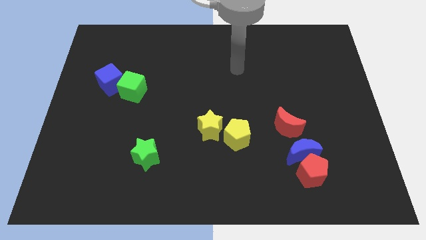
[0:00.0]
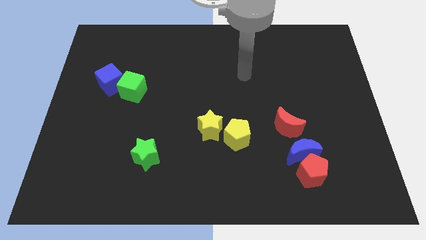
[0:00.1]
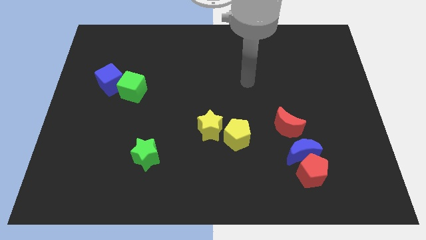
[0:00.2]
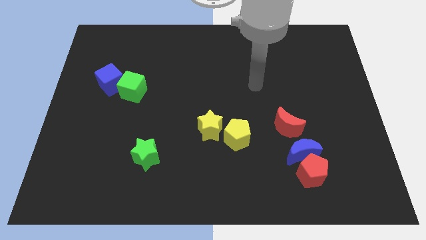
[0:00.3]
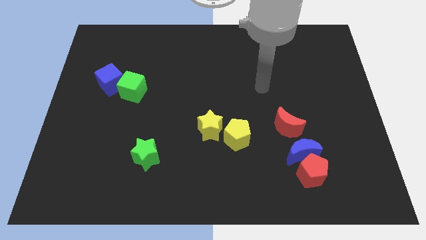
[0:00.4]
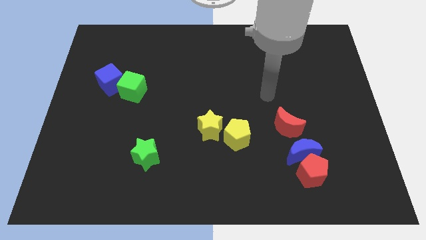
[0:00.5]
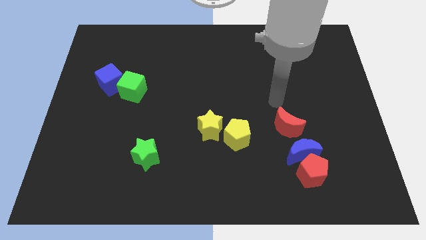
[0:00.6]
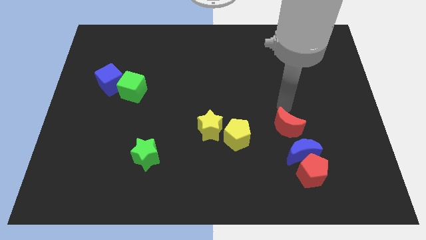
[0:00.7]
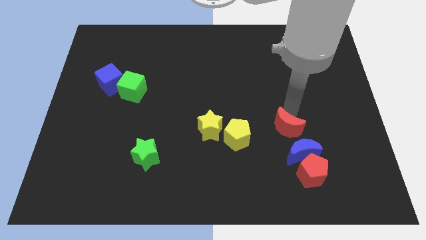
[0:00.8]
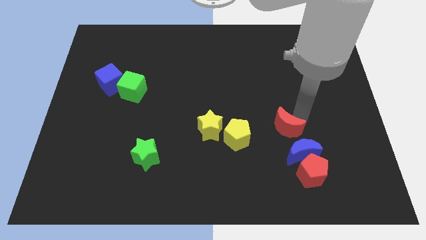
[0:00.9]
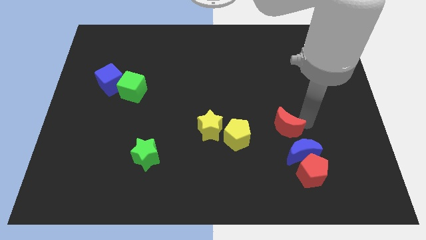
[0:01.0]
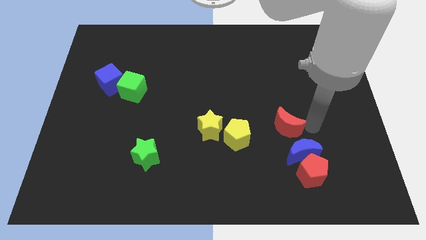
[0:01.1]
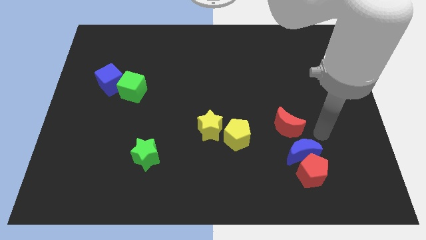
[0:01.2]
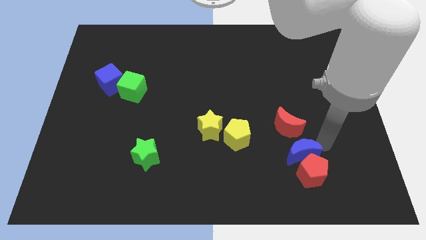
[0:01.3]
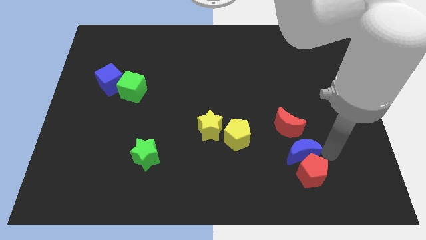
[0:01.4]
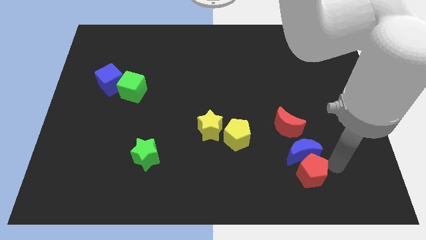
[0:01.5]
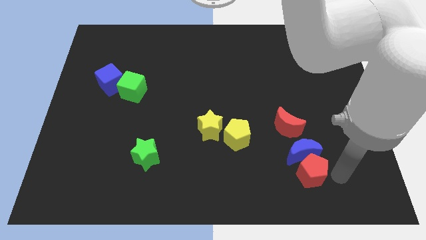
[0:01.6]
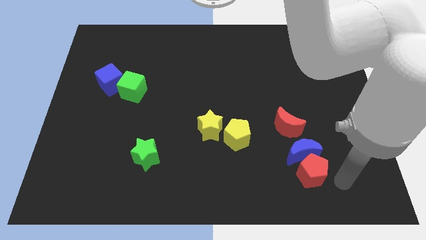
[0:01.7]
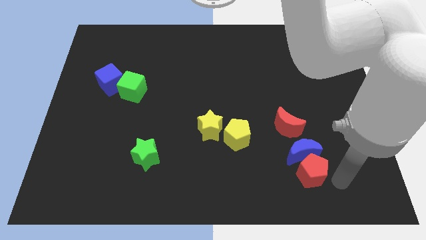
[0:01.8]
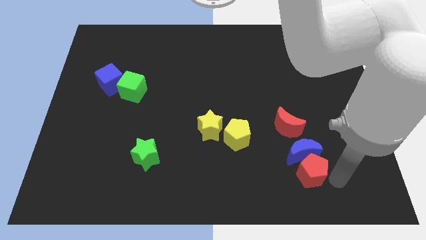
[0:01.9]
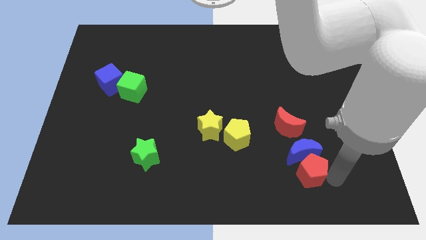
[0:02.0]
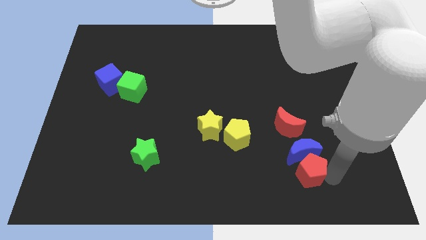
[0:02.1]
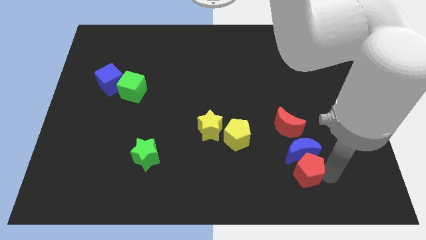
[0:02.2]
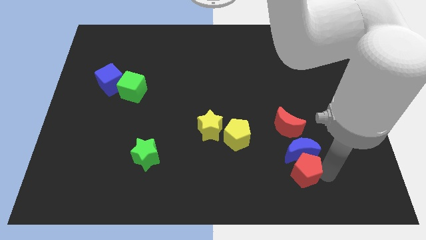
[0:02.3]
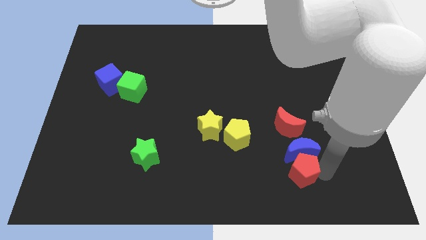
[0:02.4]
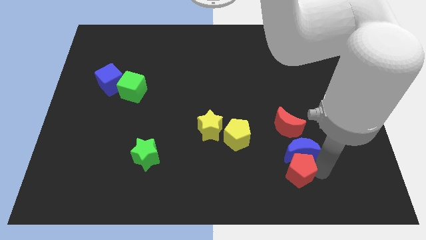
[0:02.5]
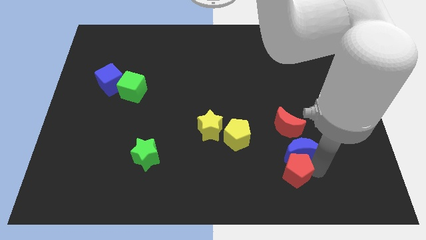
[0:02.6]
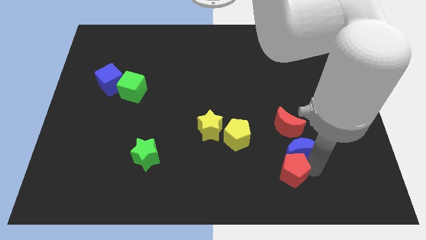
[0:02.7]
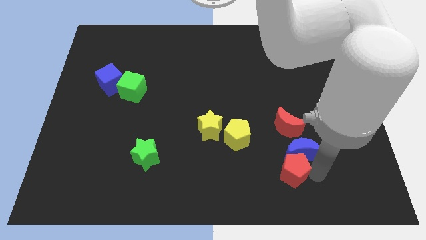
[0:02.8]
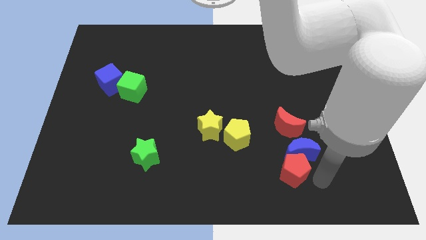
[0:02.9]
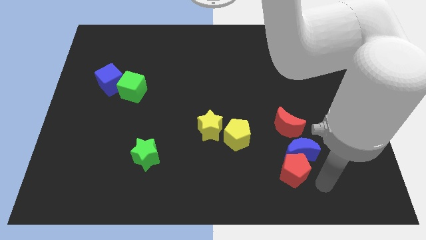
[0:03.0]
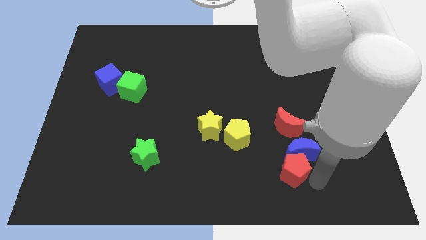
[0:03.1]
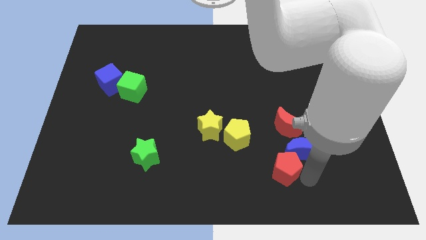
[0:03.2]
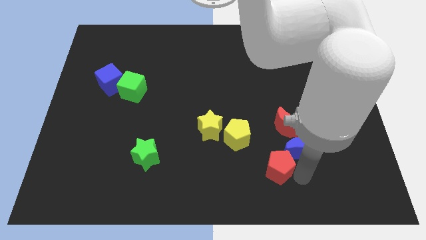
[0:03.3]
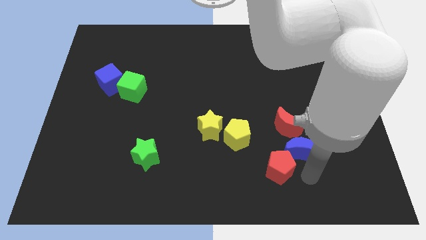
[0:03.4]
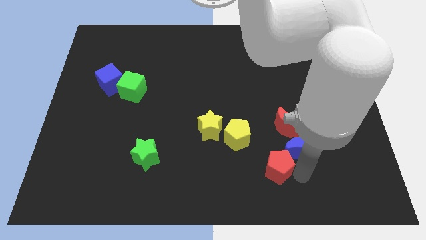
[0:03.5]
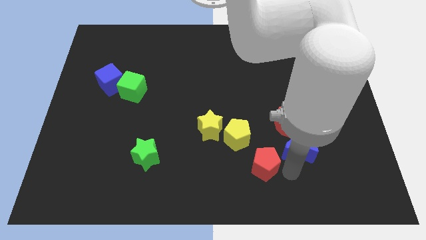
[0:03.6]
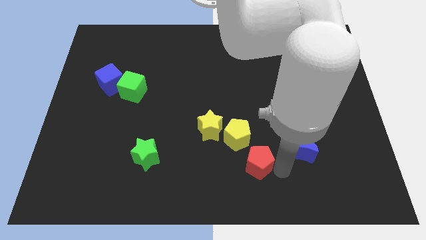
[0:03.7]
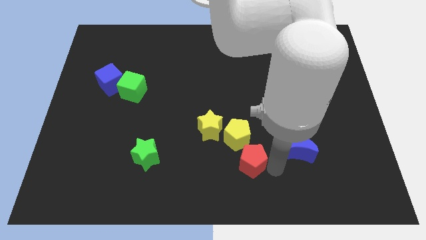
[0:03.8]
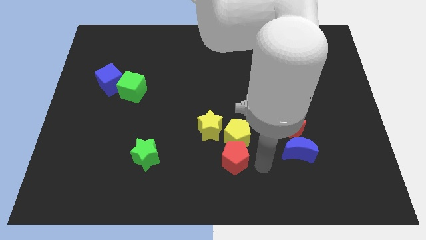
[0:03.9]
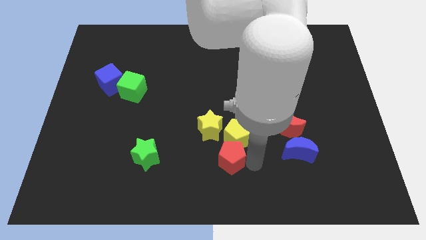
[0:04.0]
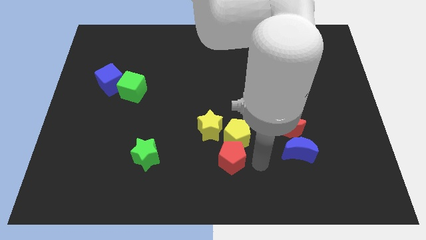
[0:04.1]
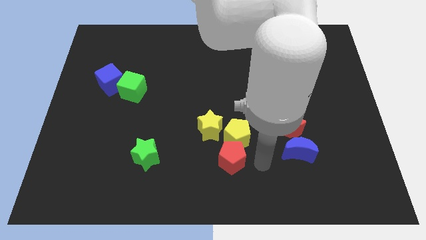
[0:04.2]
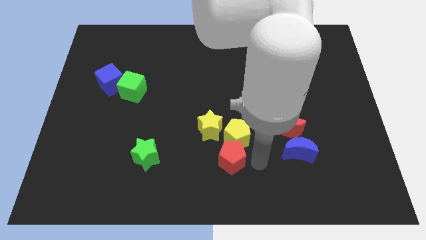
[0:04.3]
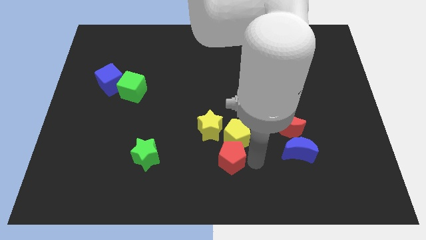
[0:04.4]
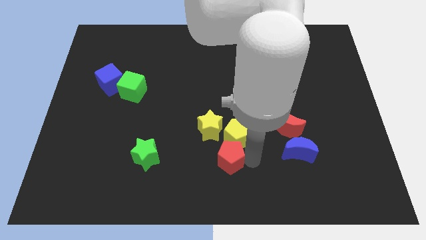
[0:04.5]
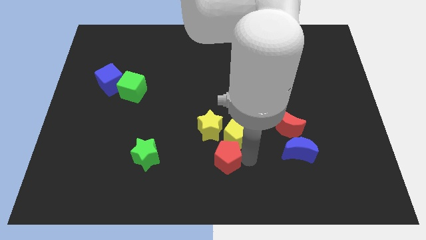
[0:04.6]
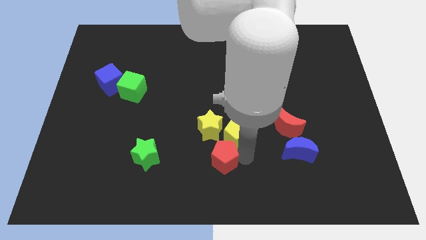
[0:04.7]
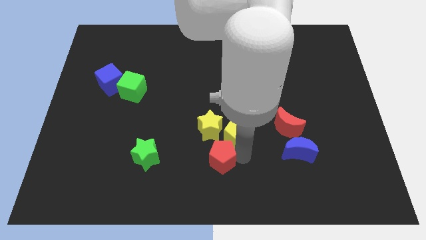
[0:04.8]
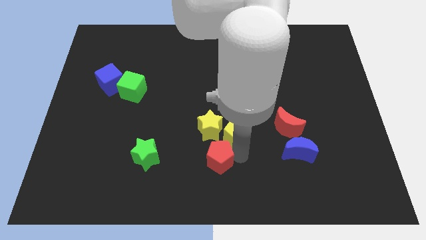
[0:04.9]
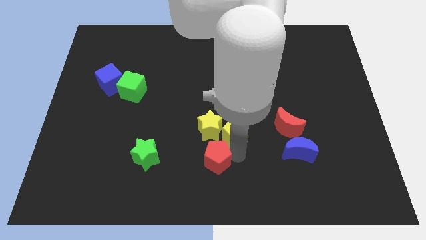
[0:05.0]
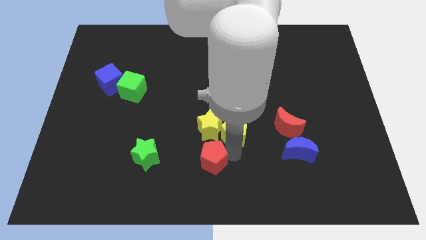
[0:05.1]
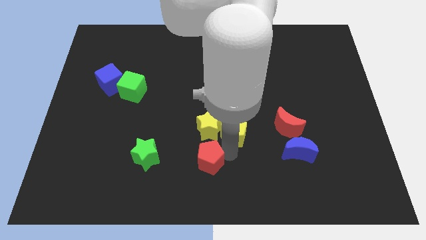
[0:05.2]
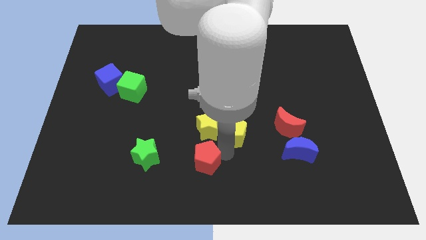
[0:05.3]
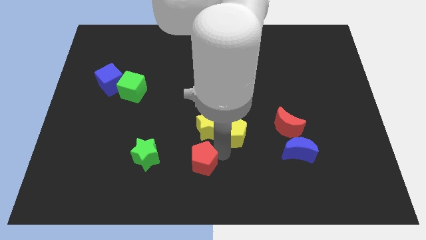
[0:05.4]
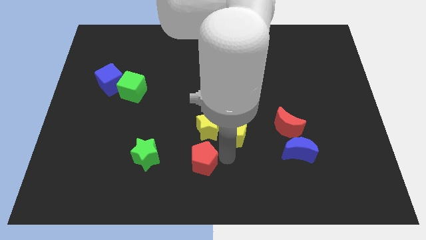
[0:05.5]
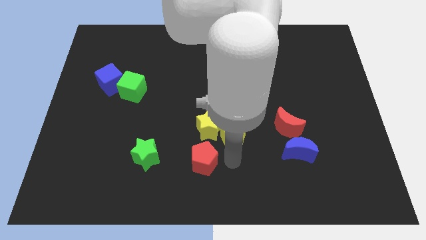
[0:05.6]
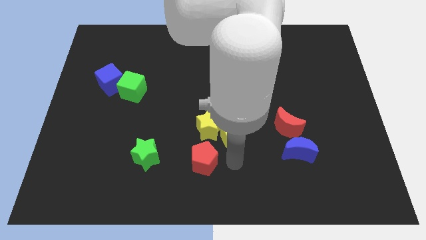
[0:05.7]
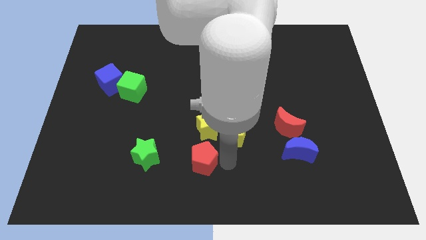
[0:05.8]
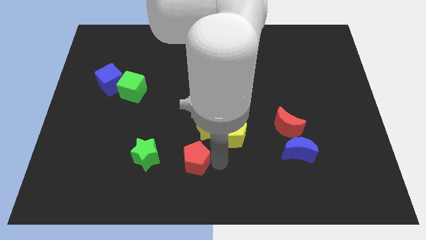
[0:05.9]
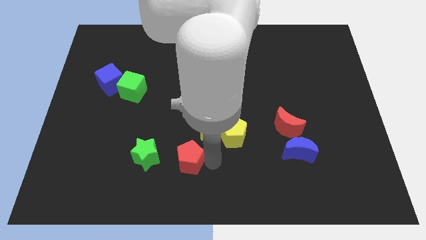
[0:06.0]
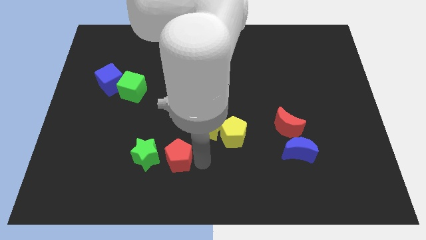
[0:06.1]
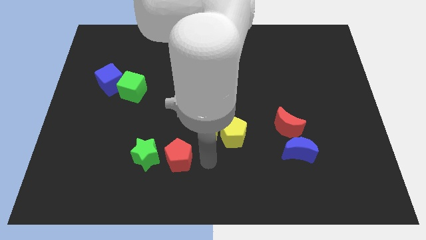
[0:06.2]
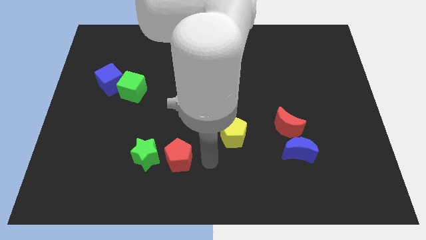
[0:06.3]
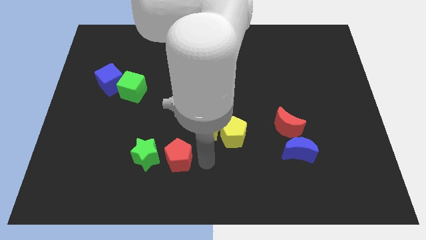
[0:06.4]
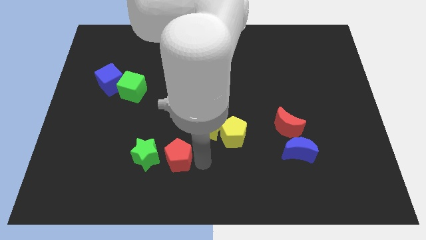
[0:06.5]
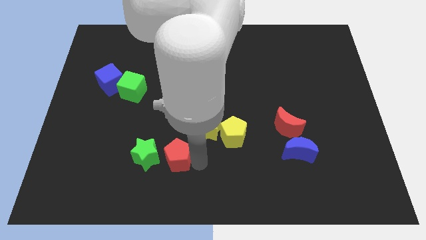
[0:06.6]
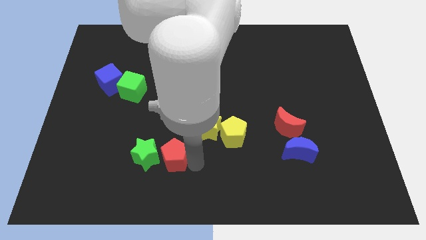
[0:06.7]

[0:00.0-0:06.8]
put the red pentagon towards the green star

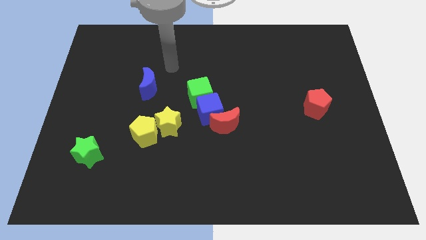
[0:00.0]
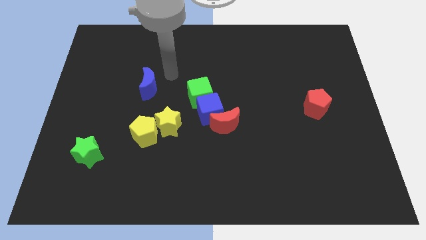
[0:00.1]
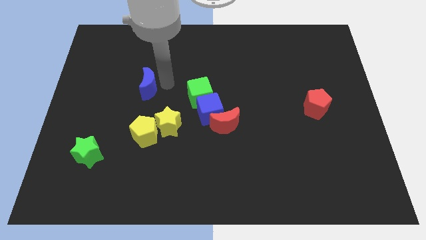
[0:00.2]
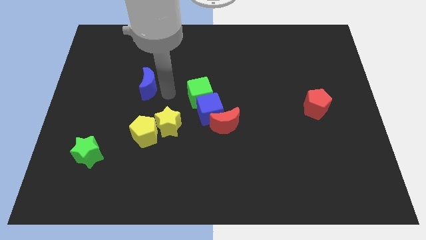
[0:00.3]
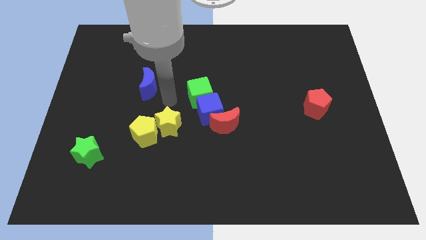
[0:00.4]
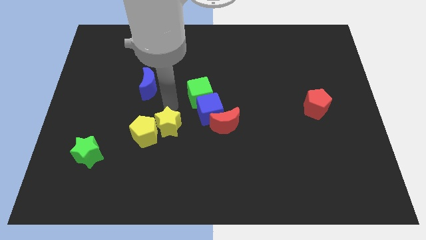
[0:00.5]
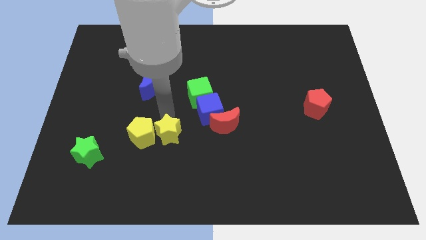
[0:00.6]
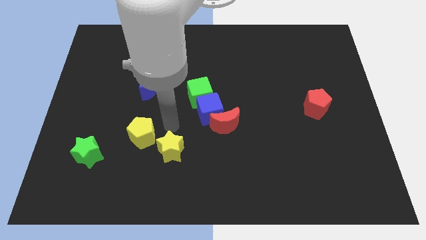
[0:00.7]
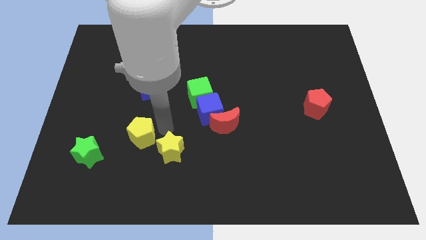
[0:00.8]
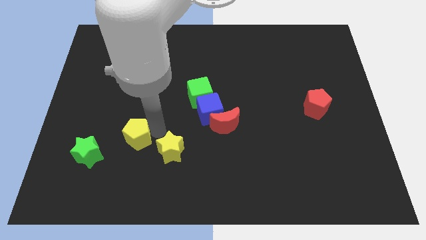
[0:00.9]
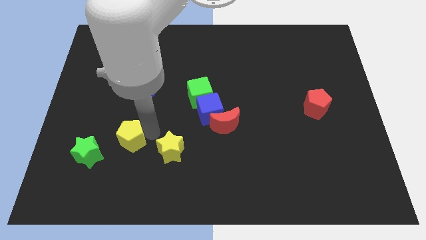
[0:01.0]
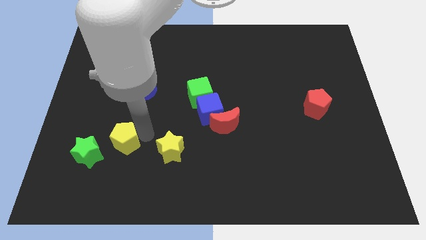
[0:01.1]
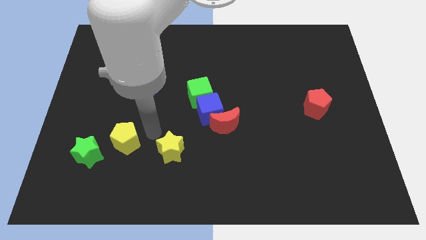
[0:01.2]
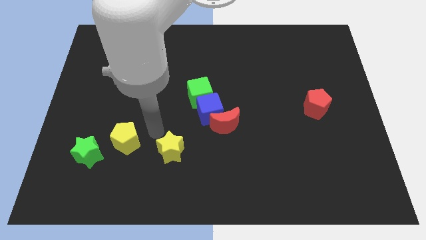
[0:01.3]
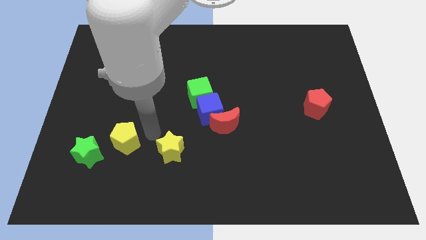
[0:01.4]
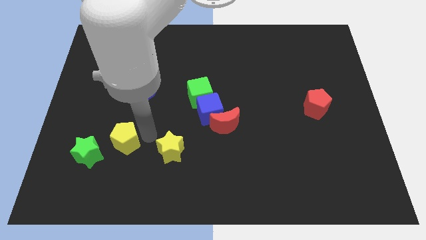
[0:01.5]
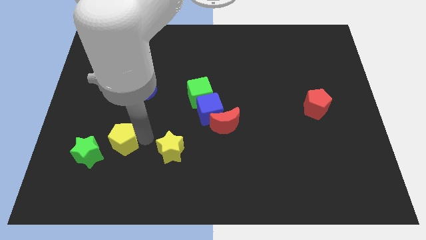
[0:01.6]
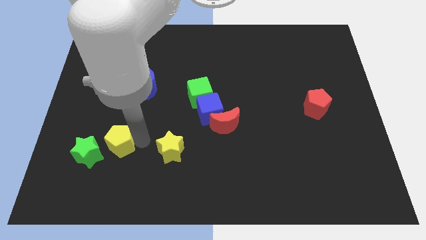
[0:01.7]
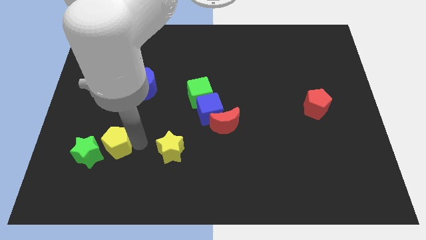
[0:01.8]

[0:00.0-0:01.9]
slide the yellow pentagon close to the green star
